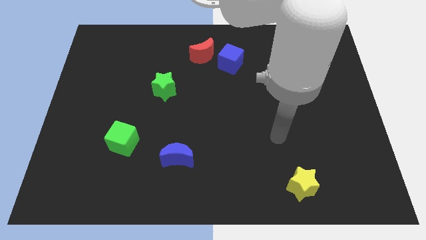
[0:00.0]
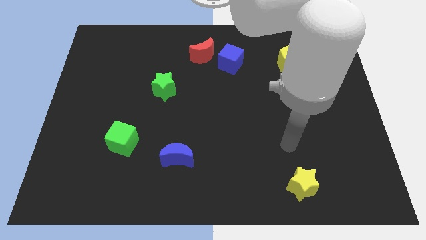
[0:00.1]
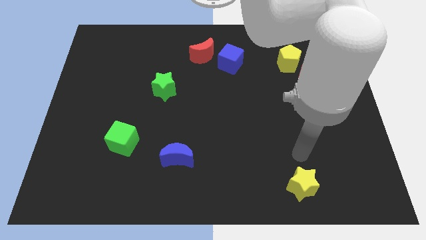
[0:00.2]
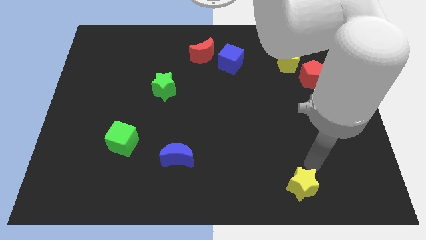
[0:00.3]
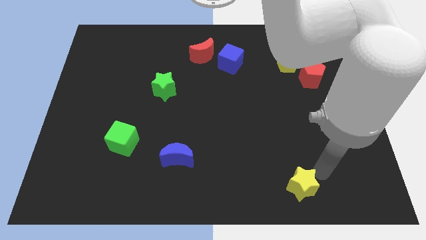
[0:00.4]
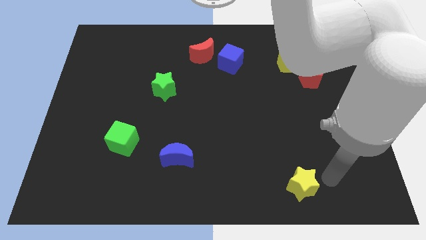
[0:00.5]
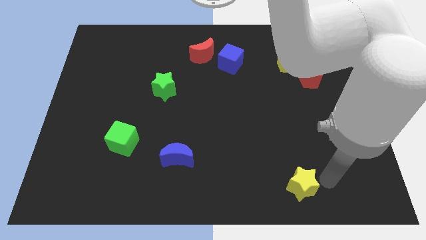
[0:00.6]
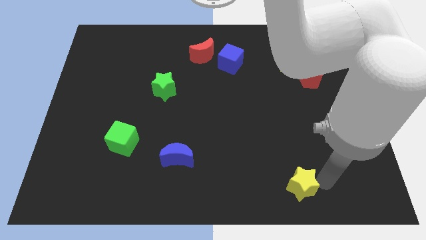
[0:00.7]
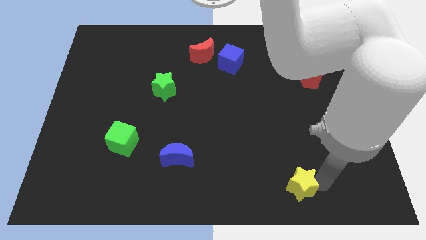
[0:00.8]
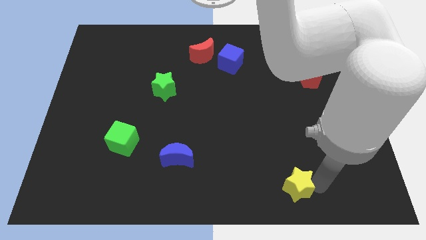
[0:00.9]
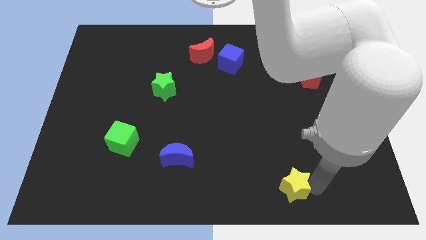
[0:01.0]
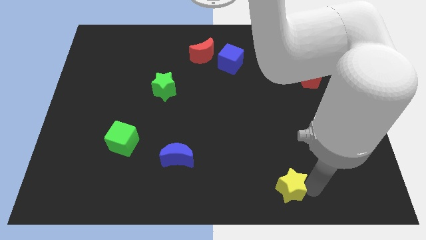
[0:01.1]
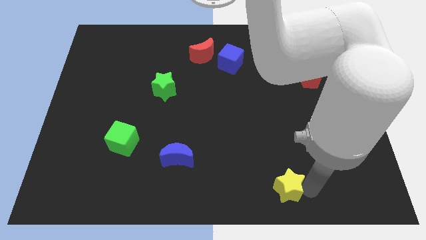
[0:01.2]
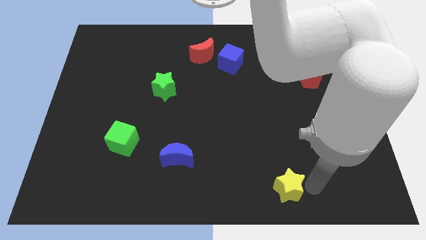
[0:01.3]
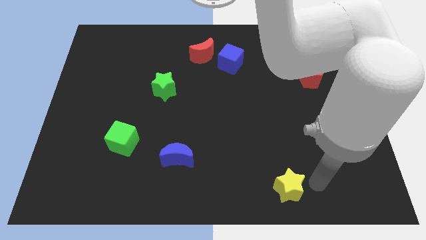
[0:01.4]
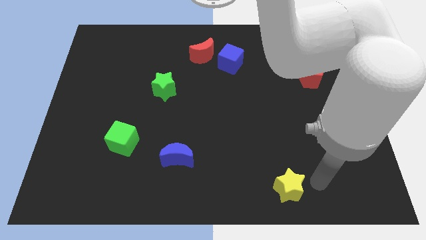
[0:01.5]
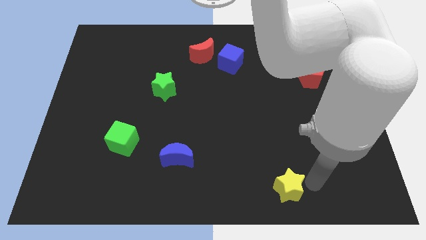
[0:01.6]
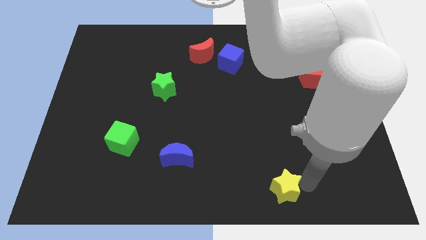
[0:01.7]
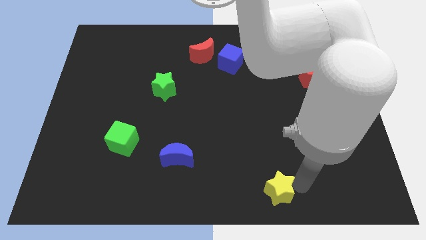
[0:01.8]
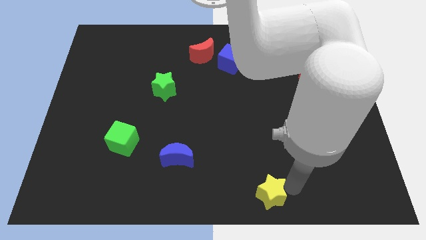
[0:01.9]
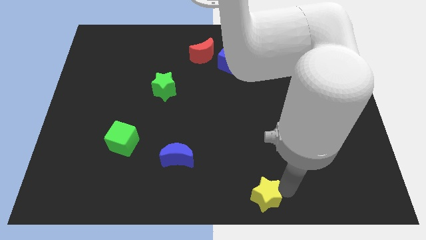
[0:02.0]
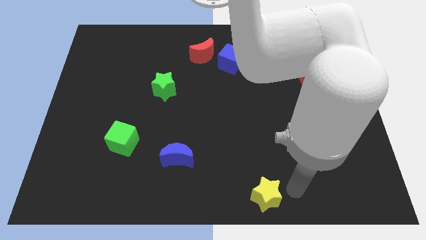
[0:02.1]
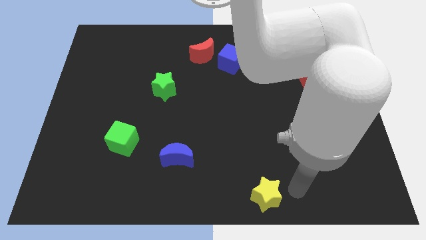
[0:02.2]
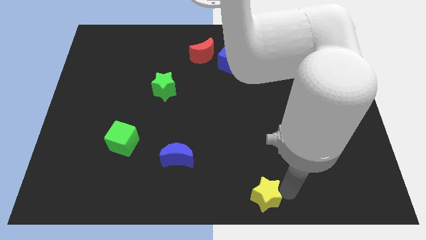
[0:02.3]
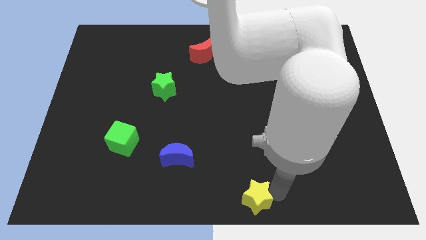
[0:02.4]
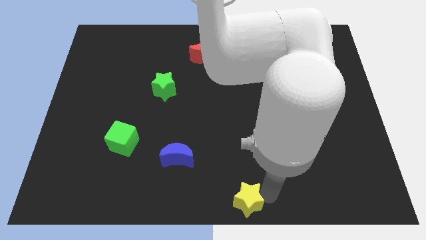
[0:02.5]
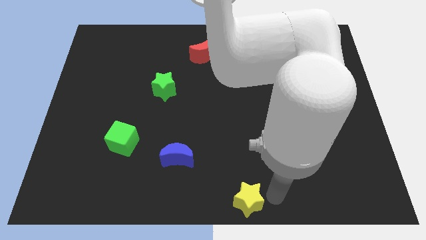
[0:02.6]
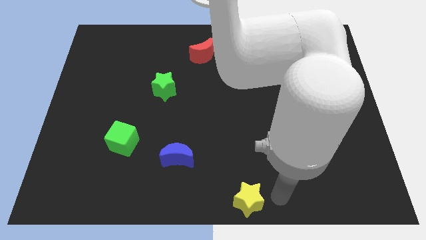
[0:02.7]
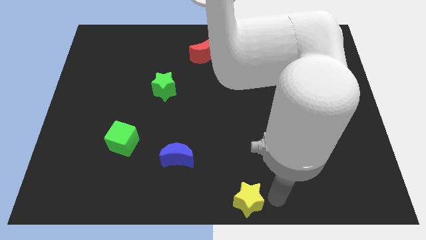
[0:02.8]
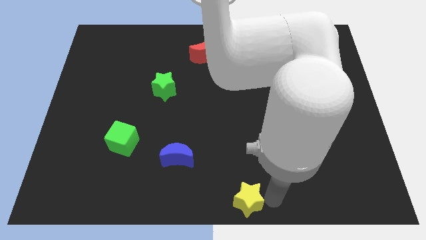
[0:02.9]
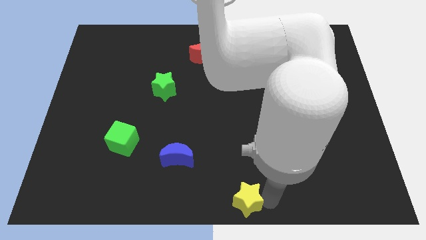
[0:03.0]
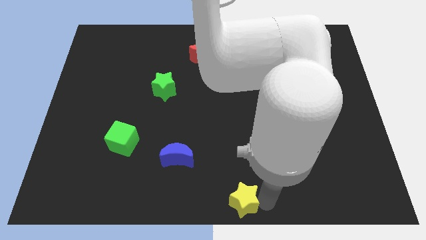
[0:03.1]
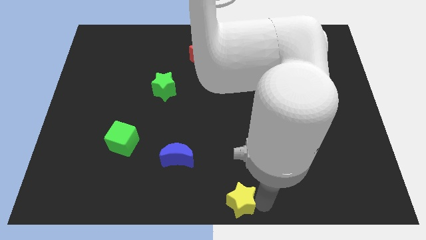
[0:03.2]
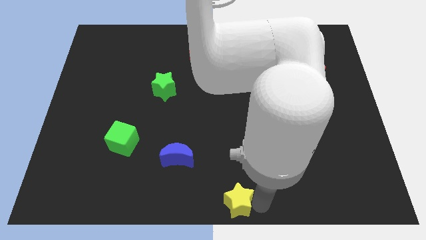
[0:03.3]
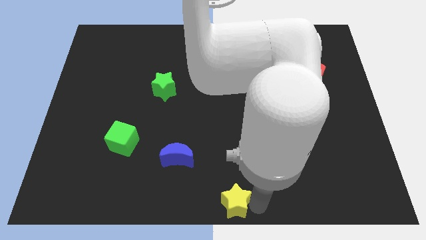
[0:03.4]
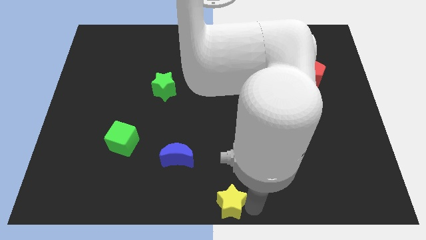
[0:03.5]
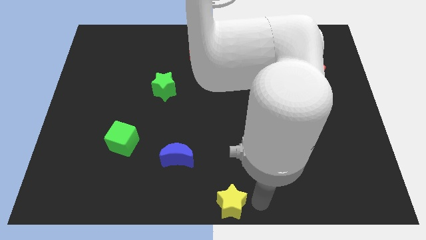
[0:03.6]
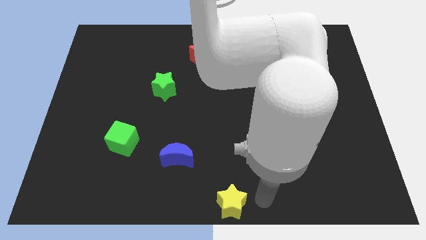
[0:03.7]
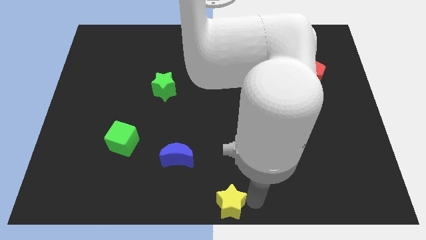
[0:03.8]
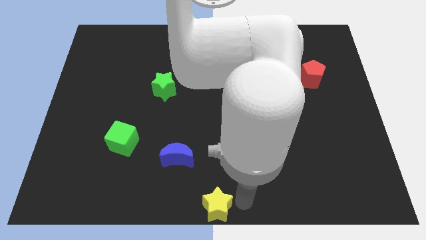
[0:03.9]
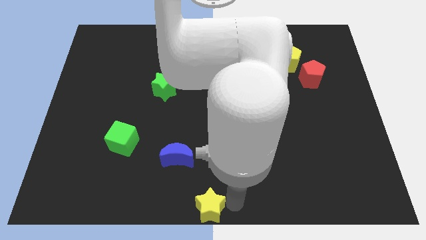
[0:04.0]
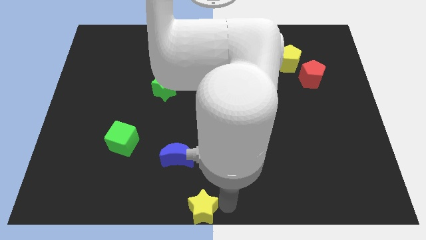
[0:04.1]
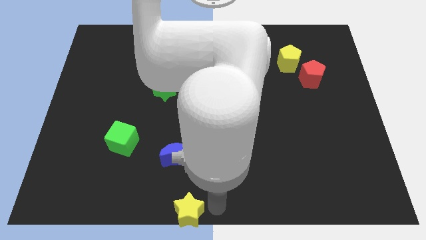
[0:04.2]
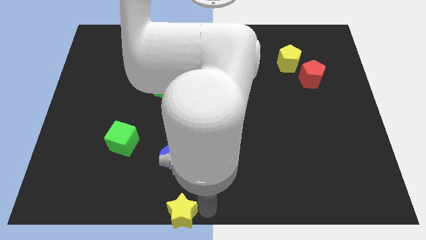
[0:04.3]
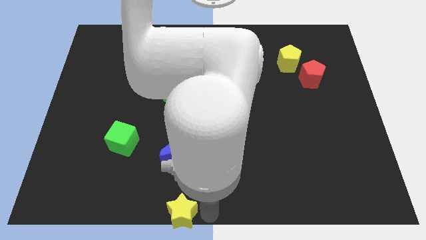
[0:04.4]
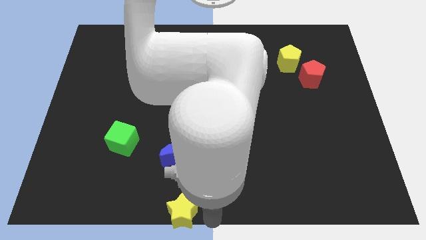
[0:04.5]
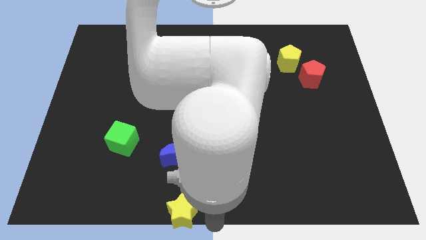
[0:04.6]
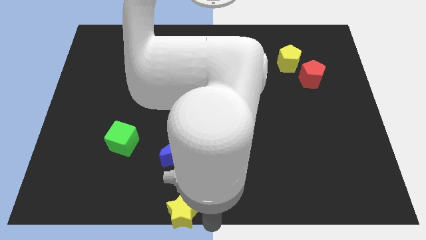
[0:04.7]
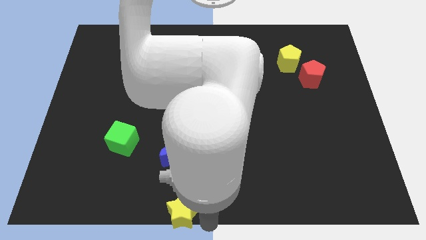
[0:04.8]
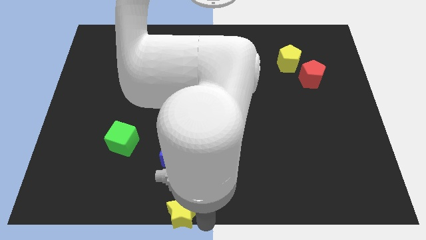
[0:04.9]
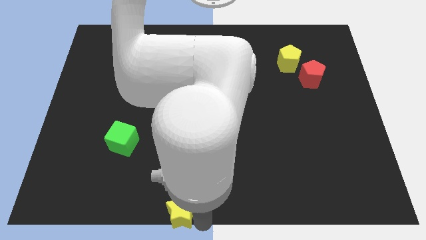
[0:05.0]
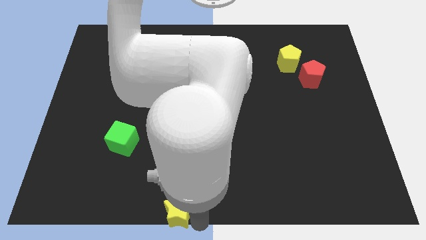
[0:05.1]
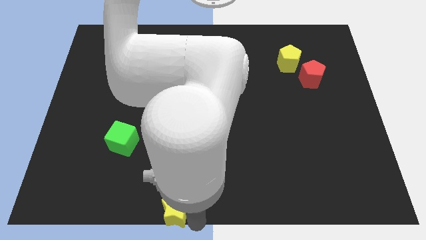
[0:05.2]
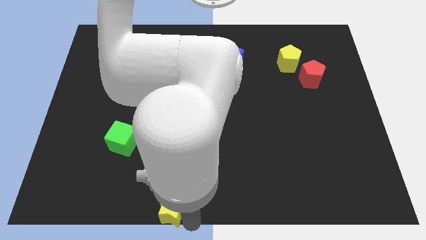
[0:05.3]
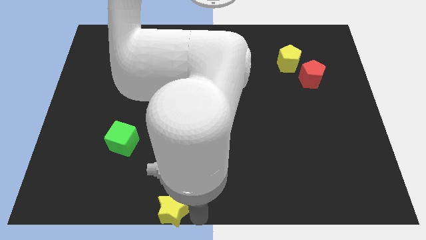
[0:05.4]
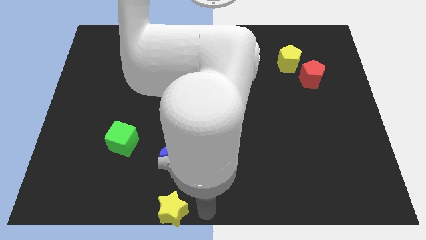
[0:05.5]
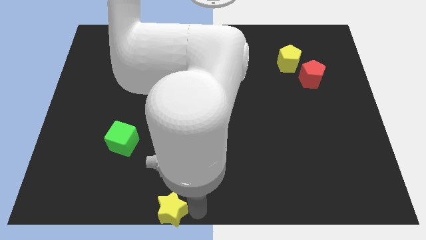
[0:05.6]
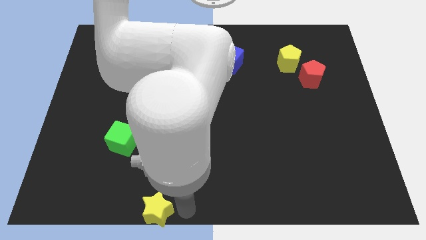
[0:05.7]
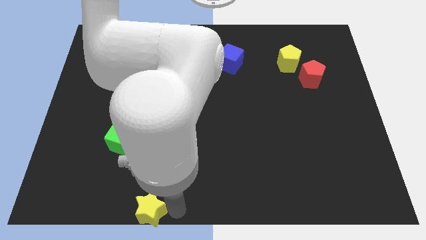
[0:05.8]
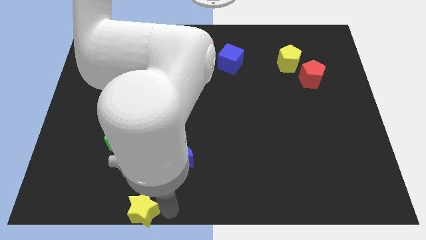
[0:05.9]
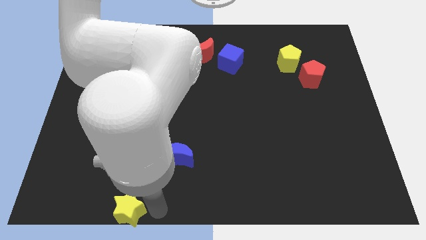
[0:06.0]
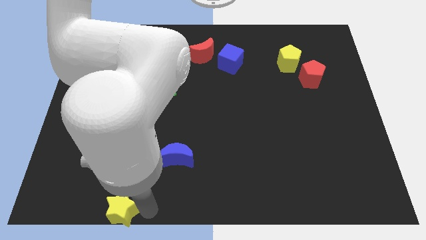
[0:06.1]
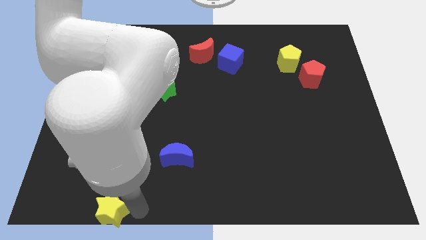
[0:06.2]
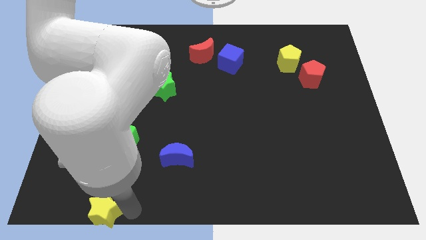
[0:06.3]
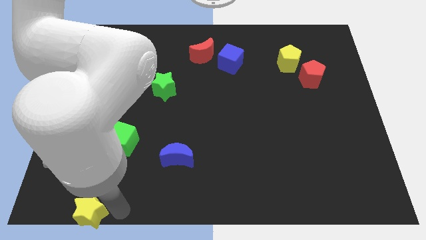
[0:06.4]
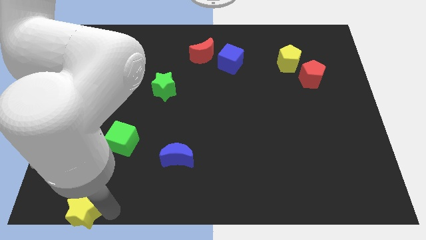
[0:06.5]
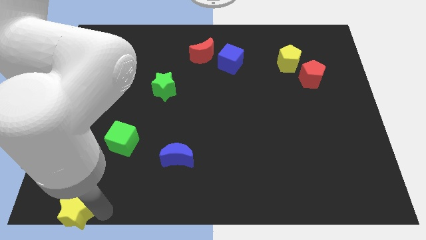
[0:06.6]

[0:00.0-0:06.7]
push the yellow star to the bottom left
